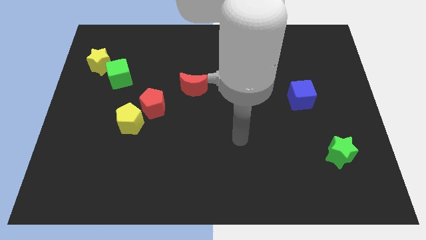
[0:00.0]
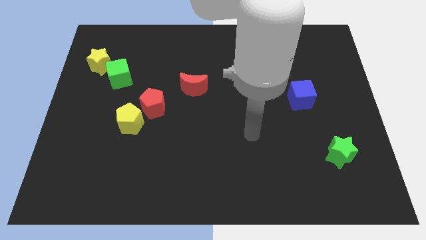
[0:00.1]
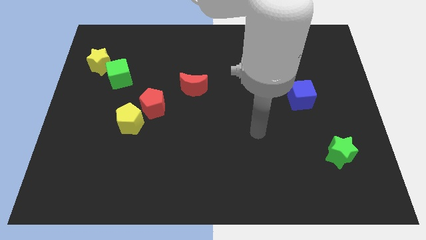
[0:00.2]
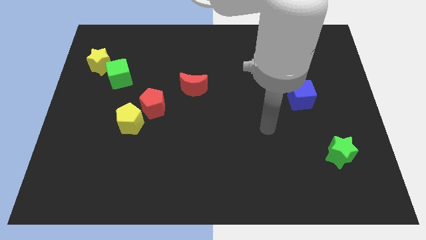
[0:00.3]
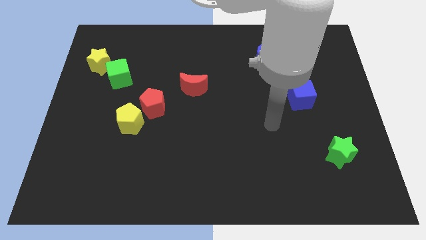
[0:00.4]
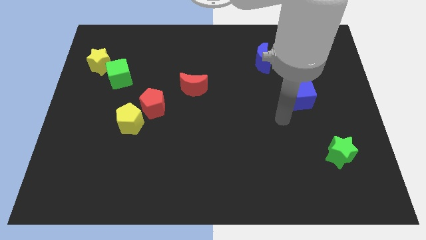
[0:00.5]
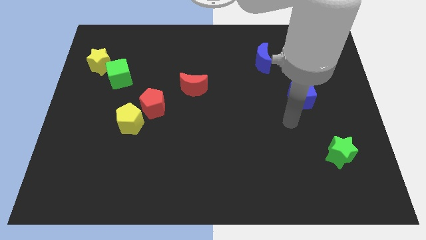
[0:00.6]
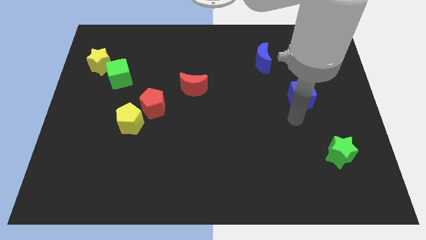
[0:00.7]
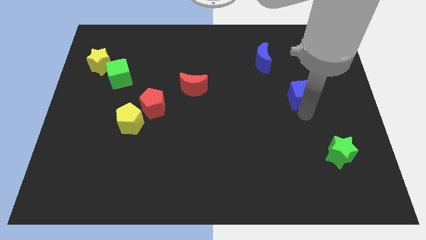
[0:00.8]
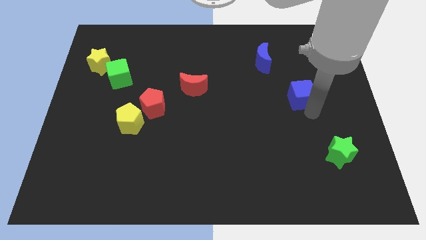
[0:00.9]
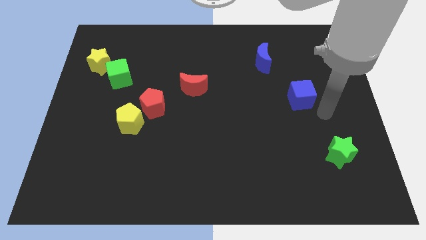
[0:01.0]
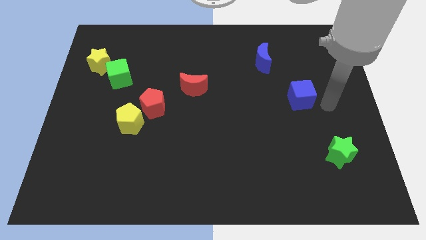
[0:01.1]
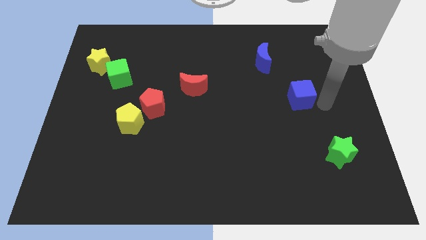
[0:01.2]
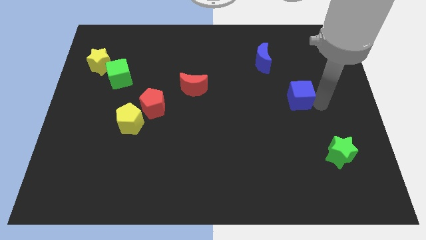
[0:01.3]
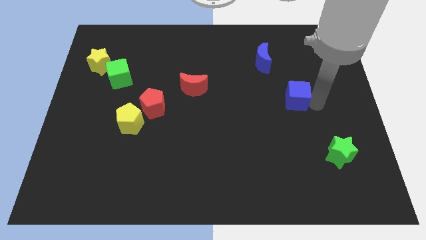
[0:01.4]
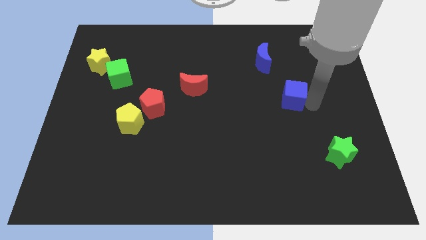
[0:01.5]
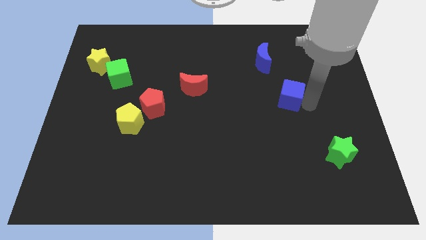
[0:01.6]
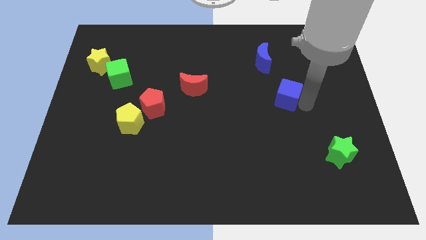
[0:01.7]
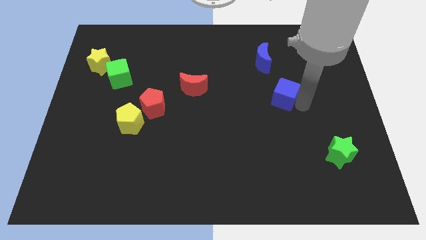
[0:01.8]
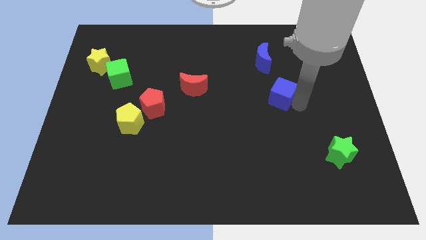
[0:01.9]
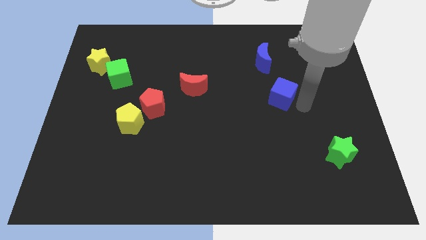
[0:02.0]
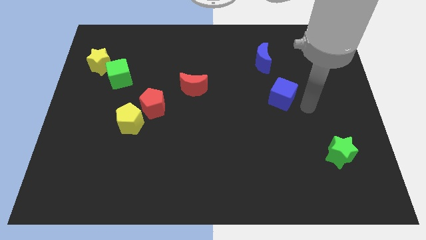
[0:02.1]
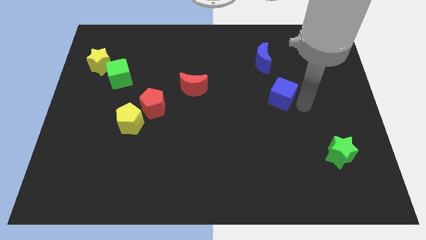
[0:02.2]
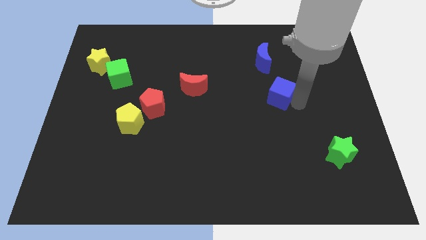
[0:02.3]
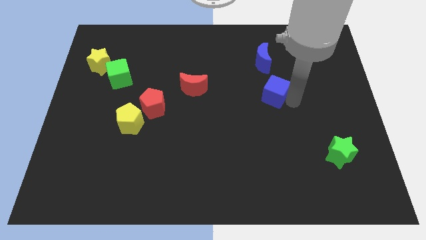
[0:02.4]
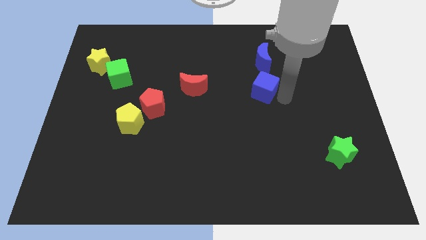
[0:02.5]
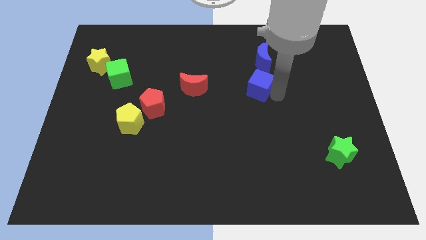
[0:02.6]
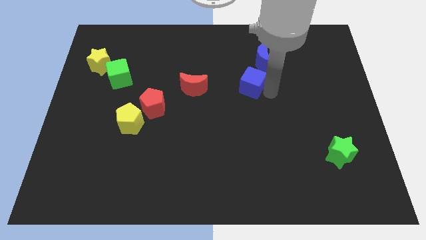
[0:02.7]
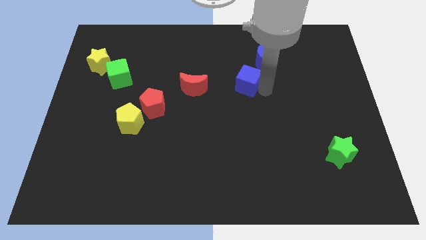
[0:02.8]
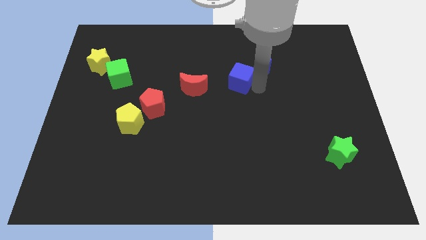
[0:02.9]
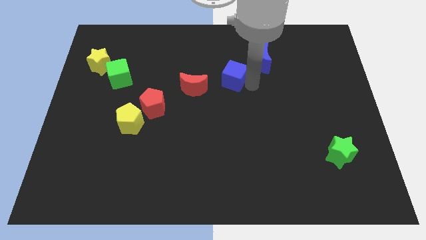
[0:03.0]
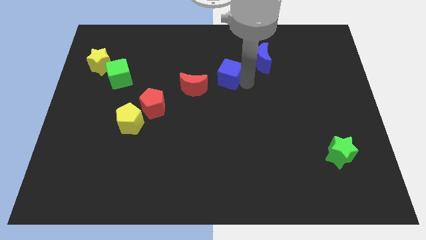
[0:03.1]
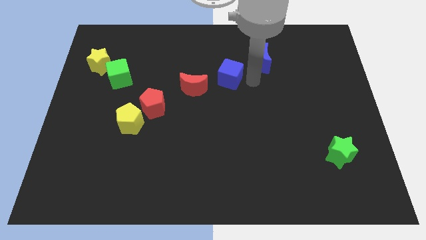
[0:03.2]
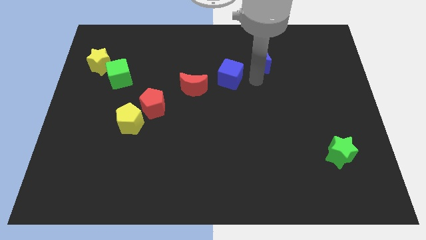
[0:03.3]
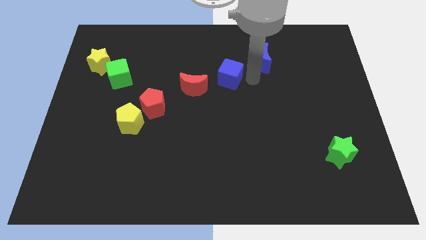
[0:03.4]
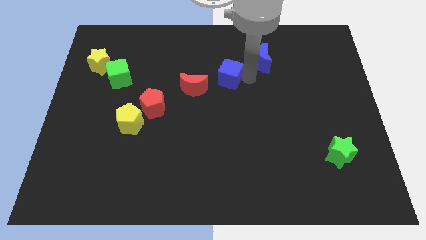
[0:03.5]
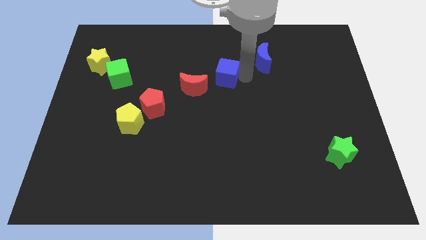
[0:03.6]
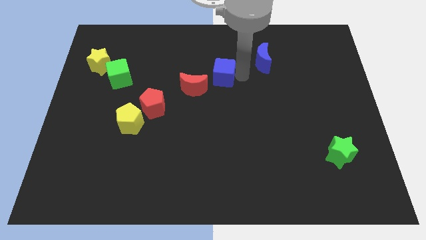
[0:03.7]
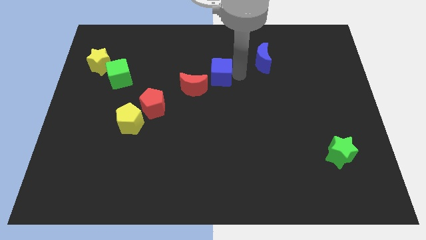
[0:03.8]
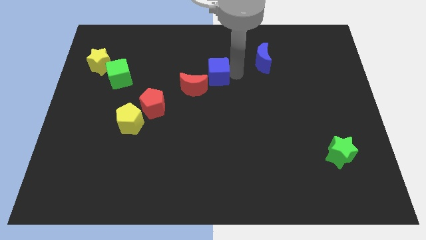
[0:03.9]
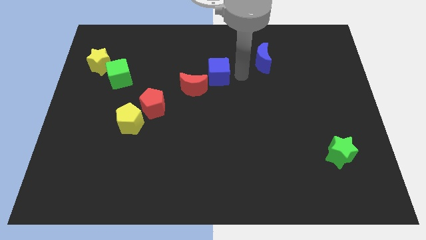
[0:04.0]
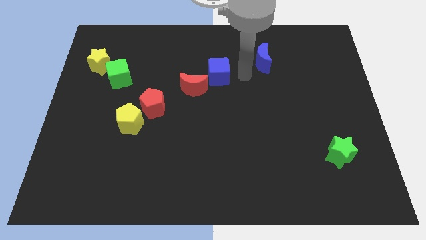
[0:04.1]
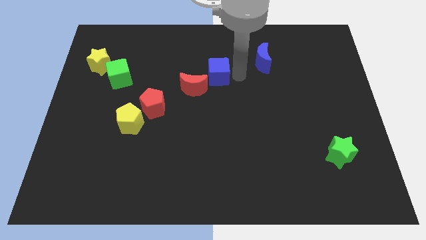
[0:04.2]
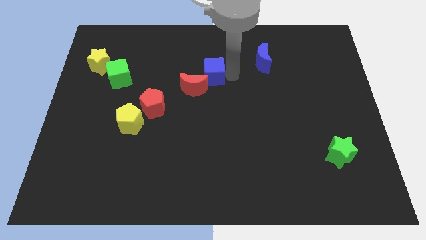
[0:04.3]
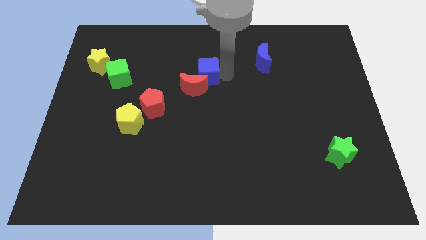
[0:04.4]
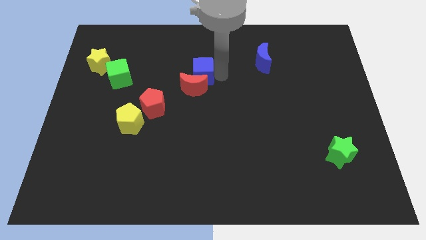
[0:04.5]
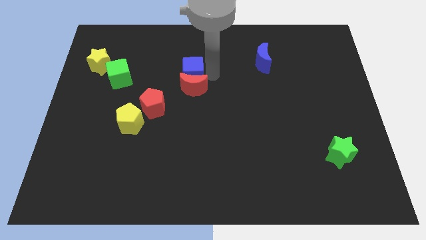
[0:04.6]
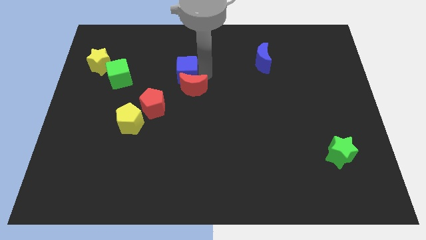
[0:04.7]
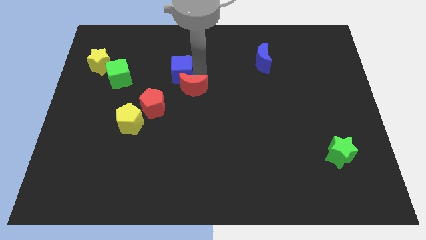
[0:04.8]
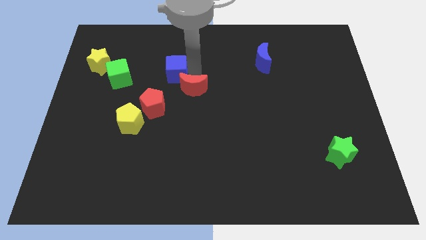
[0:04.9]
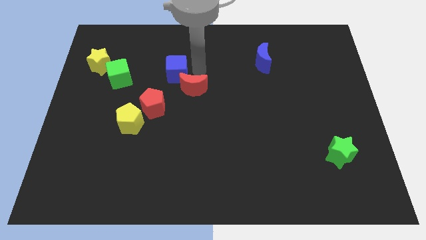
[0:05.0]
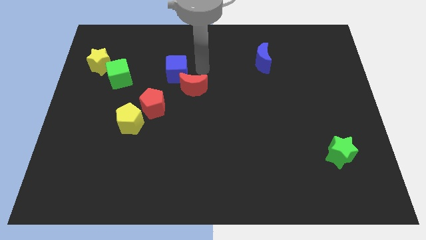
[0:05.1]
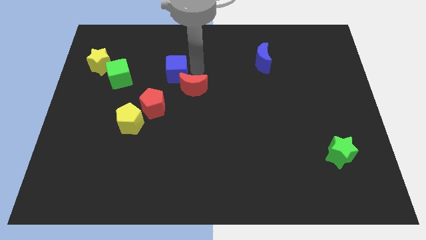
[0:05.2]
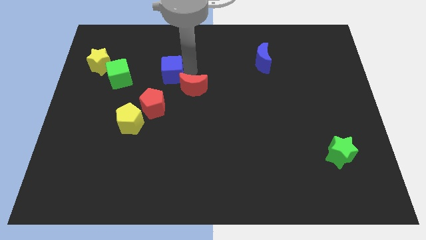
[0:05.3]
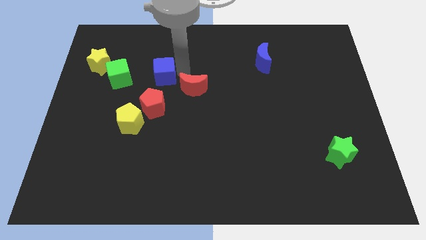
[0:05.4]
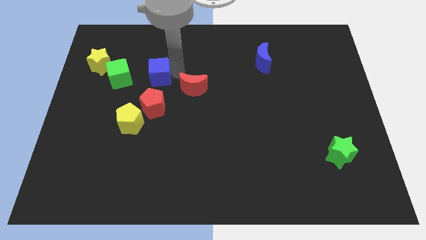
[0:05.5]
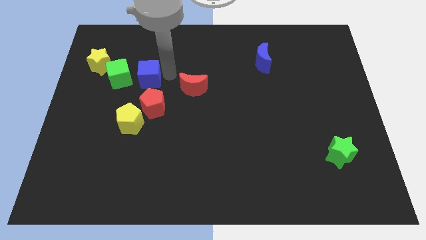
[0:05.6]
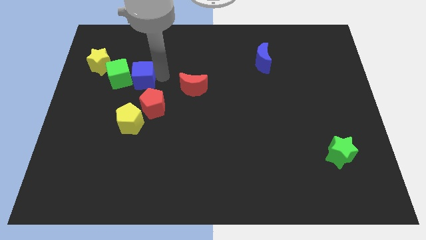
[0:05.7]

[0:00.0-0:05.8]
put the blue cube to the green cube

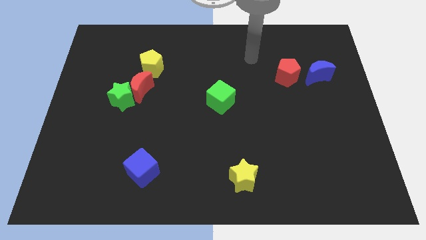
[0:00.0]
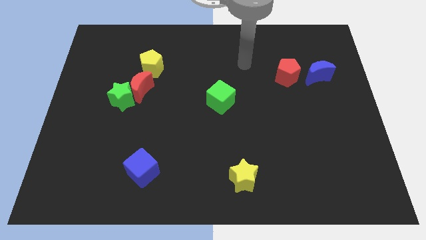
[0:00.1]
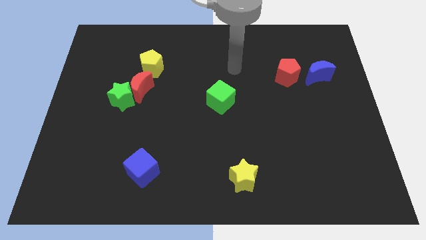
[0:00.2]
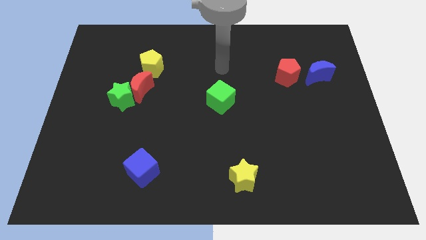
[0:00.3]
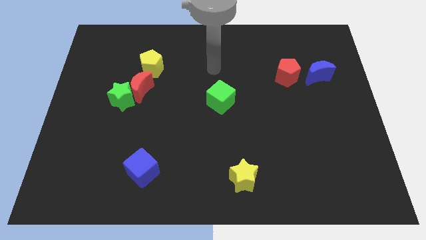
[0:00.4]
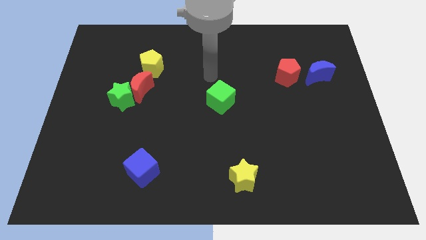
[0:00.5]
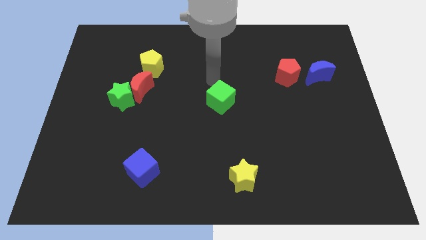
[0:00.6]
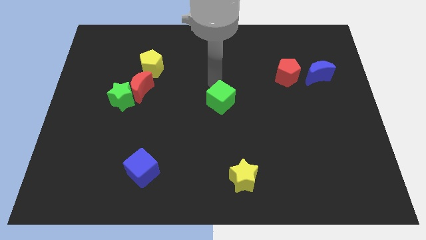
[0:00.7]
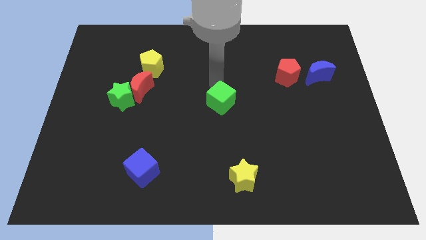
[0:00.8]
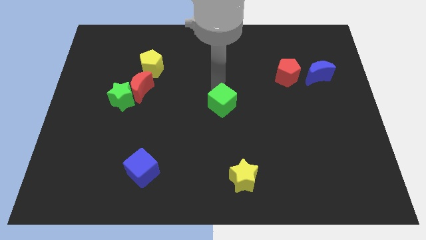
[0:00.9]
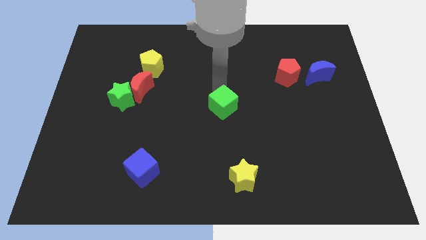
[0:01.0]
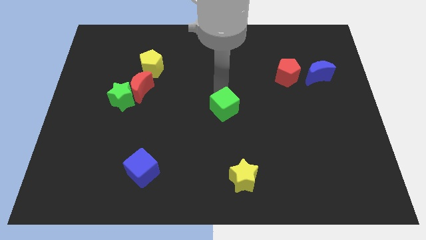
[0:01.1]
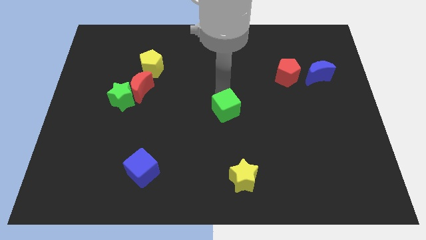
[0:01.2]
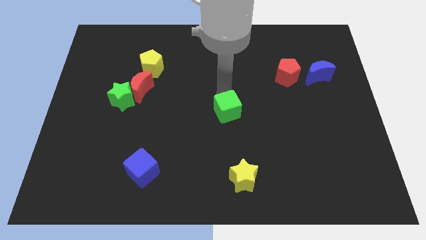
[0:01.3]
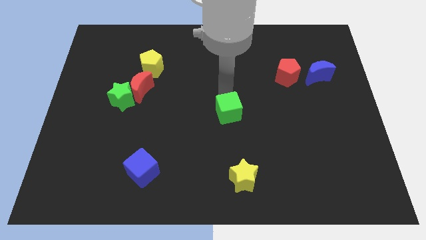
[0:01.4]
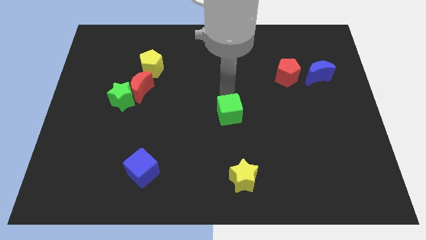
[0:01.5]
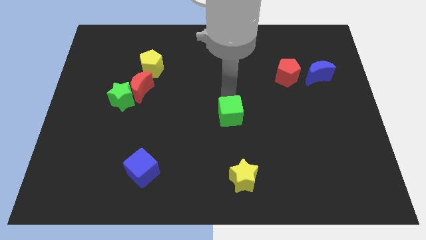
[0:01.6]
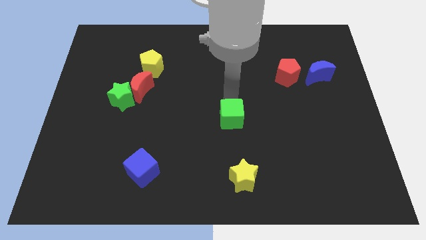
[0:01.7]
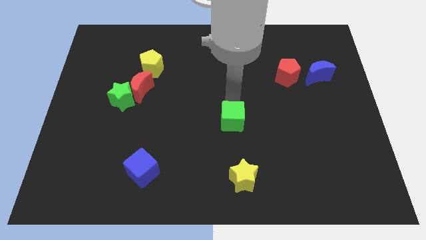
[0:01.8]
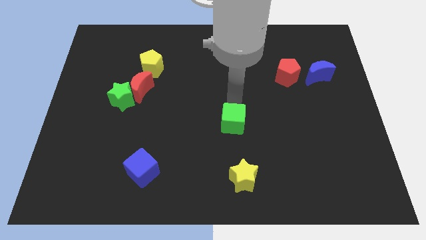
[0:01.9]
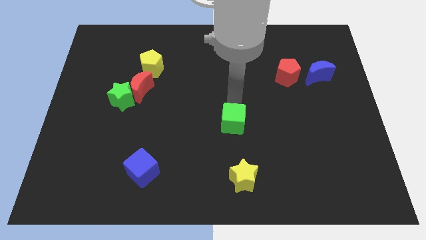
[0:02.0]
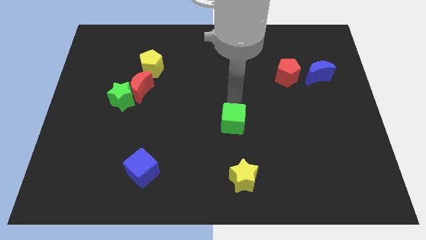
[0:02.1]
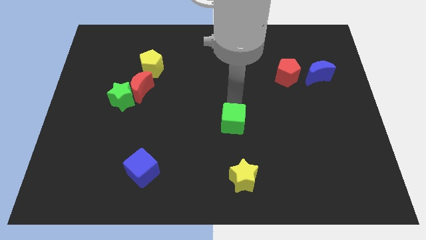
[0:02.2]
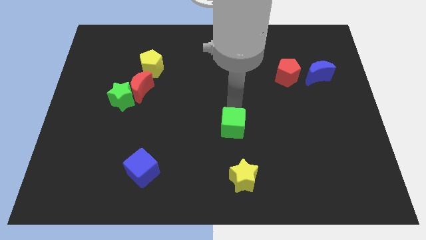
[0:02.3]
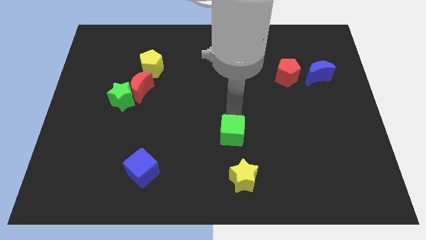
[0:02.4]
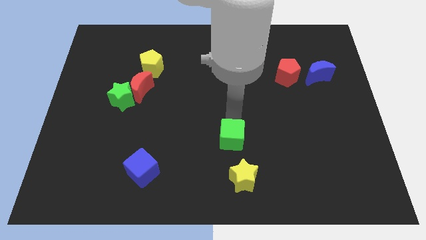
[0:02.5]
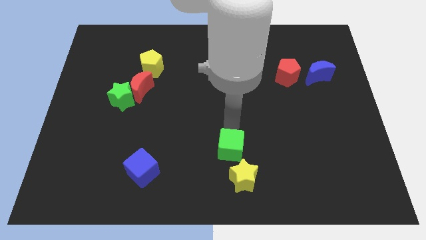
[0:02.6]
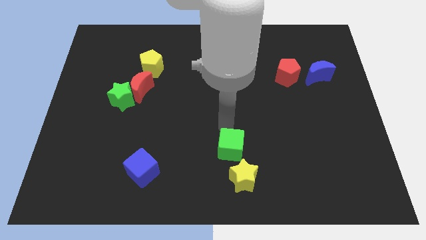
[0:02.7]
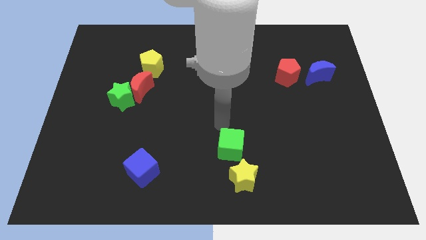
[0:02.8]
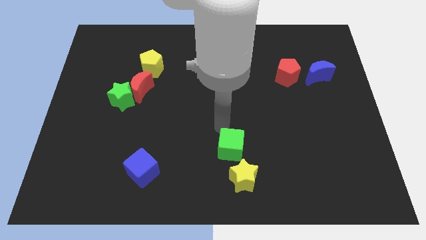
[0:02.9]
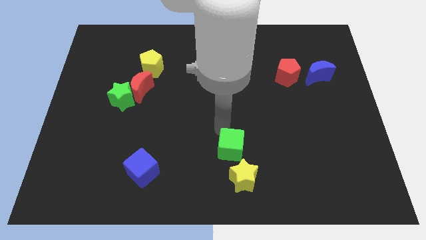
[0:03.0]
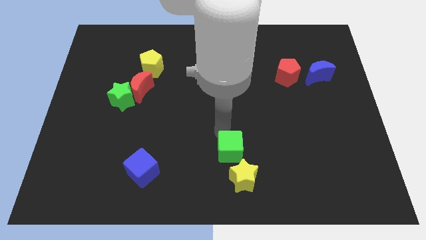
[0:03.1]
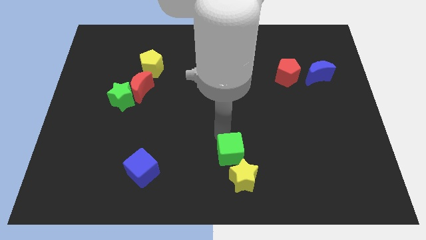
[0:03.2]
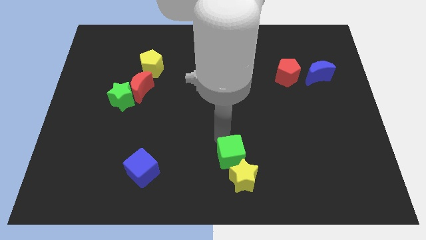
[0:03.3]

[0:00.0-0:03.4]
move the green cube next to the yellow star
